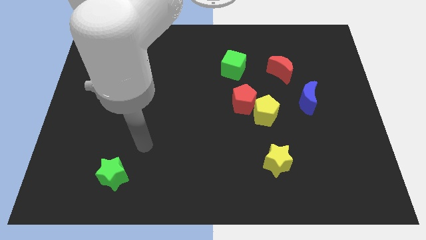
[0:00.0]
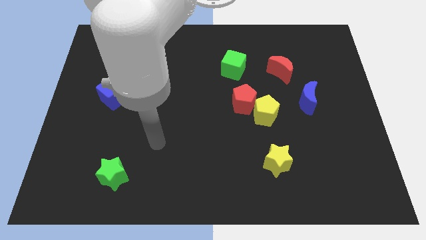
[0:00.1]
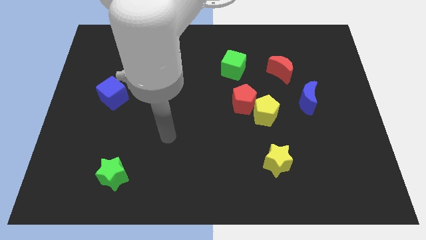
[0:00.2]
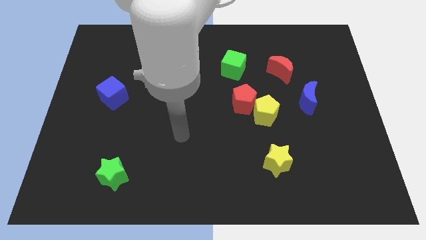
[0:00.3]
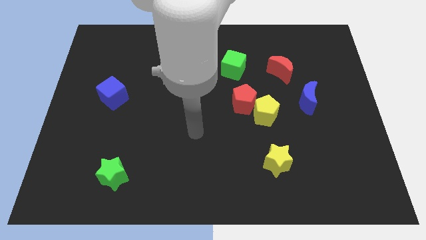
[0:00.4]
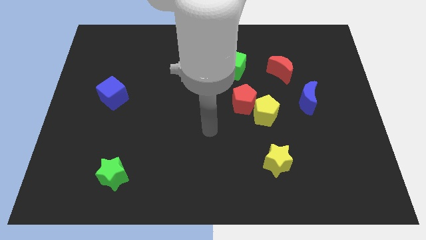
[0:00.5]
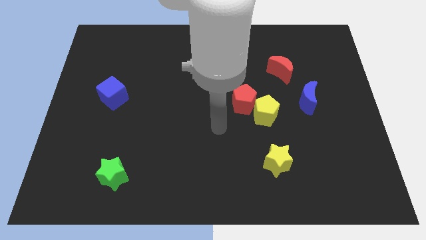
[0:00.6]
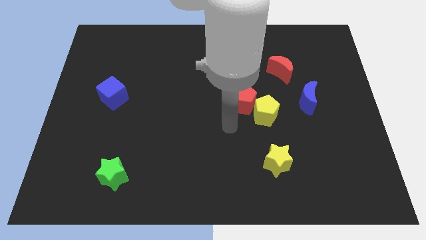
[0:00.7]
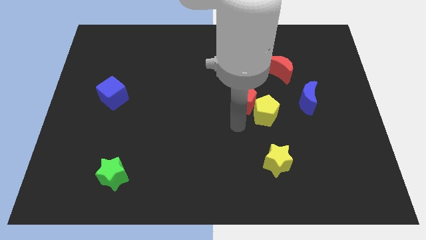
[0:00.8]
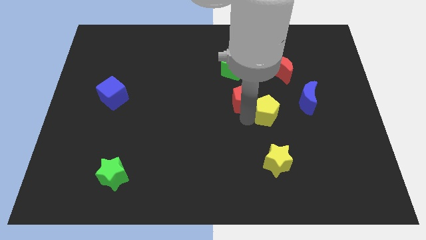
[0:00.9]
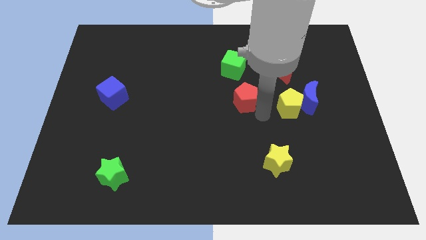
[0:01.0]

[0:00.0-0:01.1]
move the red pentagon away from the yellow pentagon

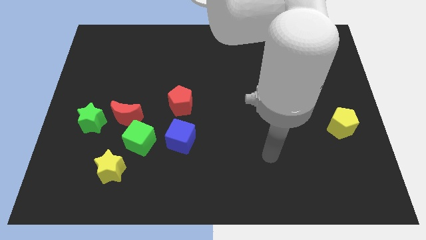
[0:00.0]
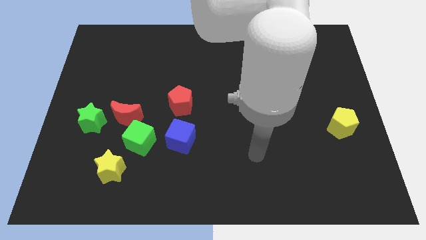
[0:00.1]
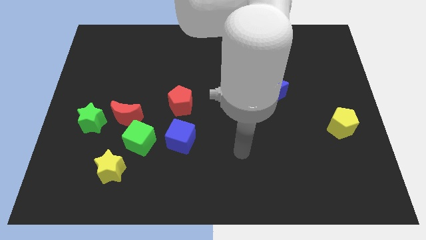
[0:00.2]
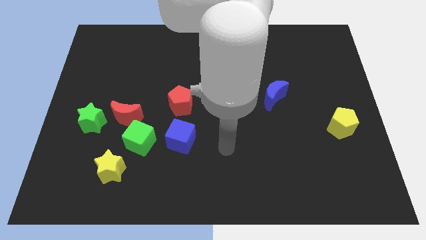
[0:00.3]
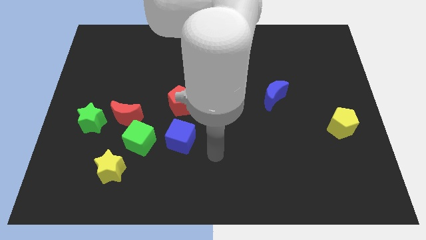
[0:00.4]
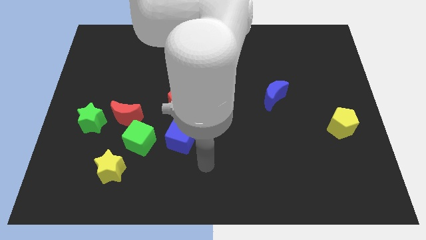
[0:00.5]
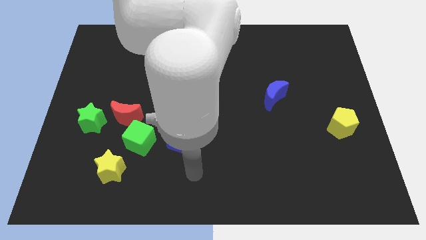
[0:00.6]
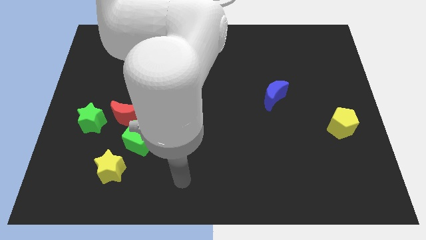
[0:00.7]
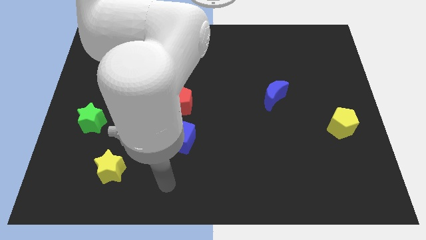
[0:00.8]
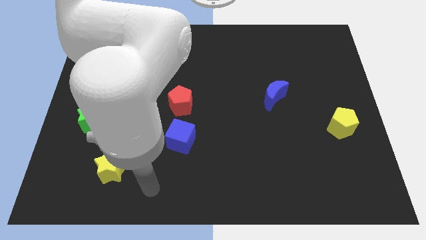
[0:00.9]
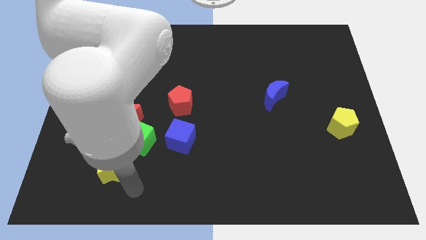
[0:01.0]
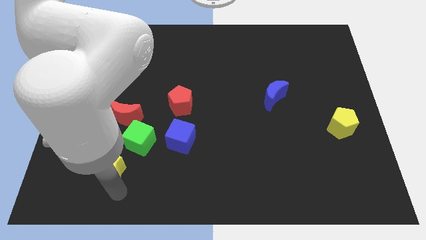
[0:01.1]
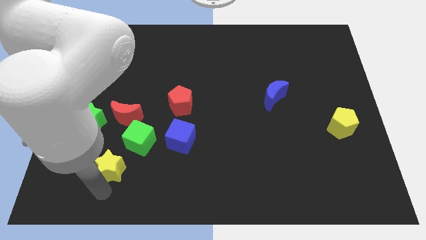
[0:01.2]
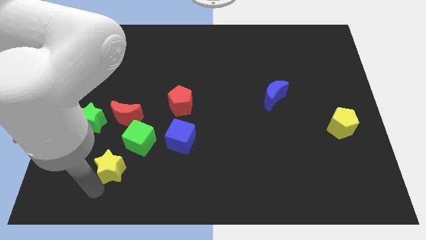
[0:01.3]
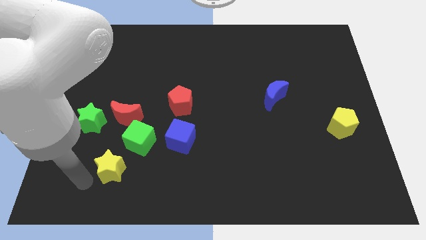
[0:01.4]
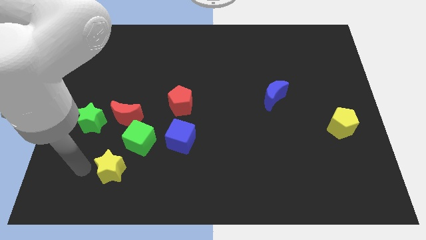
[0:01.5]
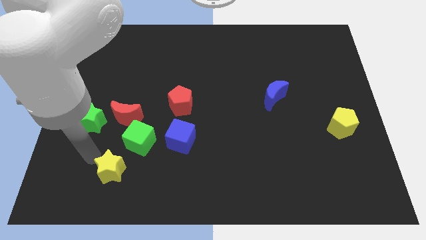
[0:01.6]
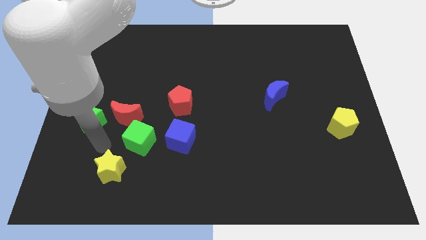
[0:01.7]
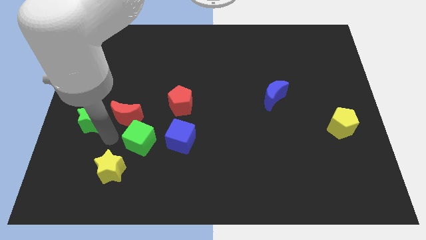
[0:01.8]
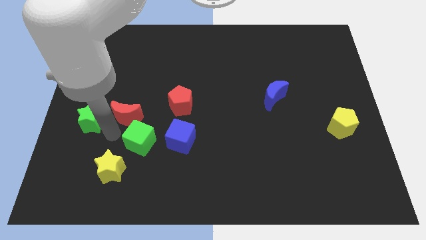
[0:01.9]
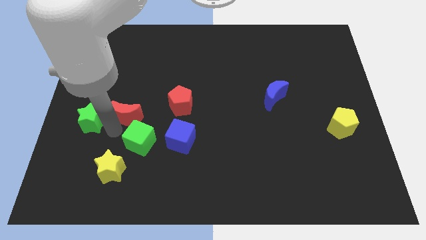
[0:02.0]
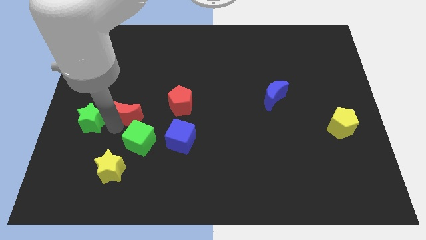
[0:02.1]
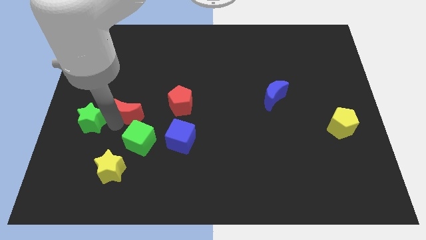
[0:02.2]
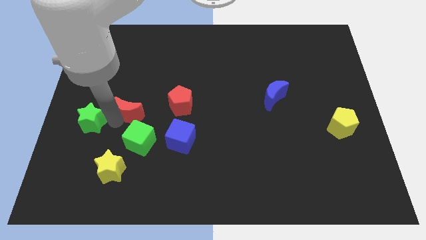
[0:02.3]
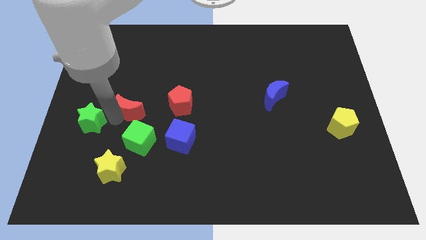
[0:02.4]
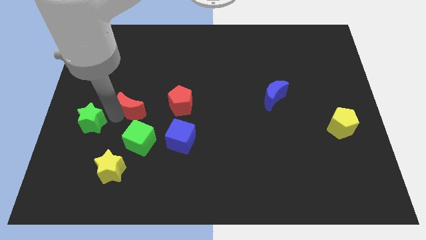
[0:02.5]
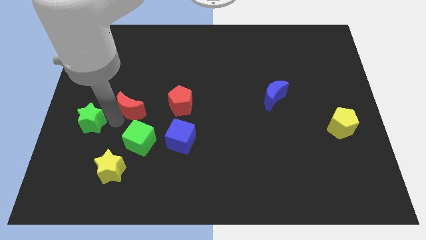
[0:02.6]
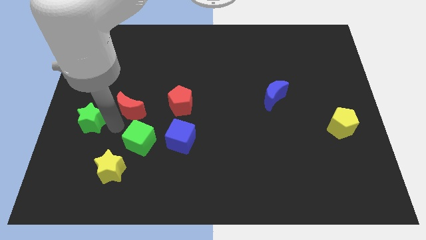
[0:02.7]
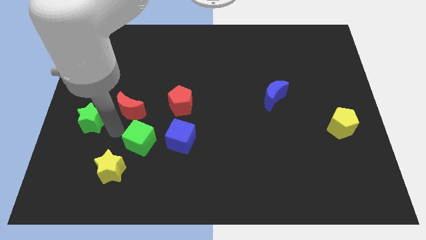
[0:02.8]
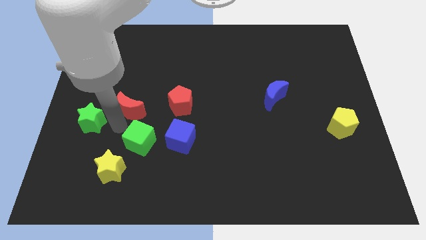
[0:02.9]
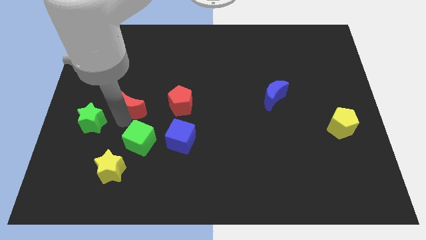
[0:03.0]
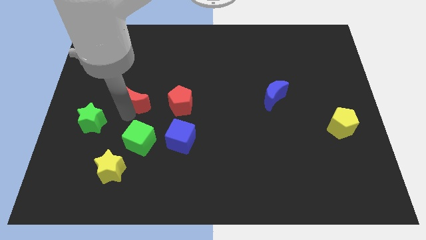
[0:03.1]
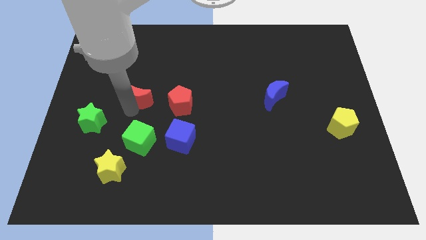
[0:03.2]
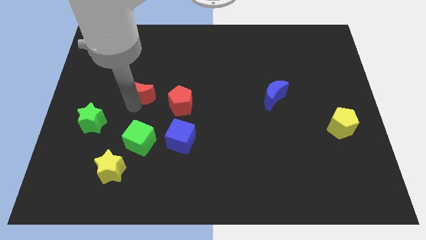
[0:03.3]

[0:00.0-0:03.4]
separate the red moon from the green cube and green star

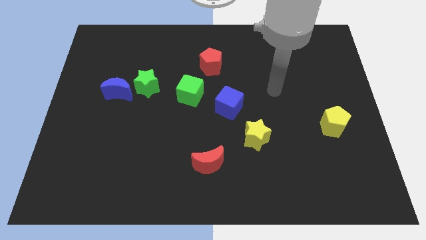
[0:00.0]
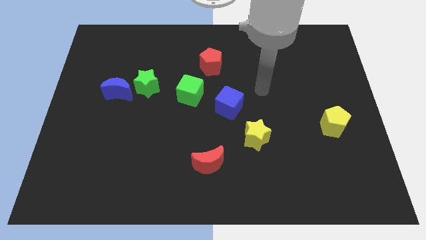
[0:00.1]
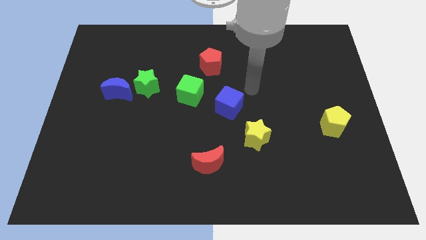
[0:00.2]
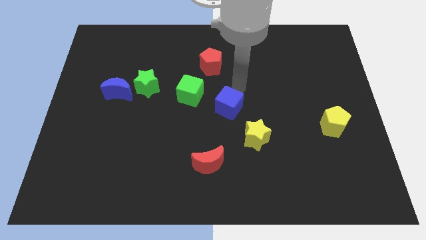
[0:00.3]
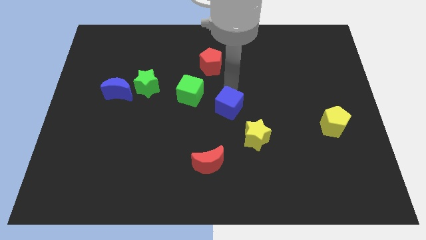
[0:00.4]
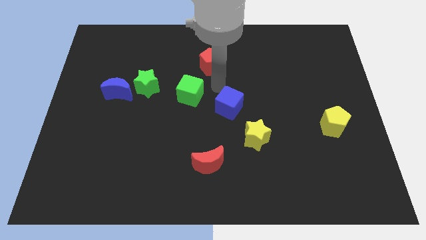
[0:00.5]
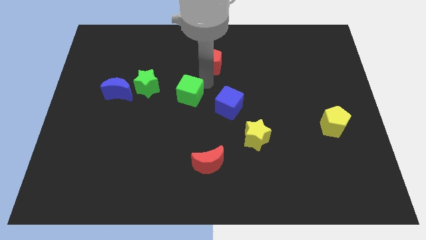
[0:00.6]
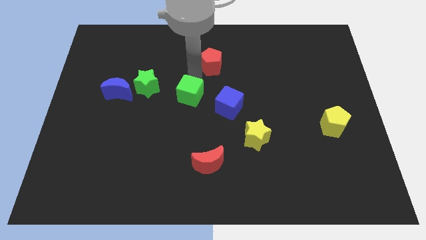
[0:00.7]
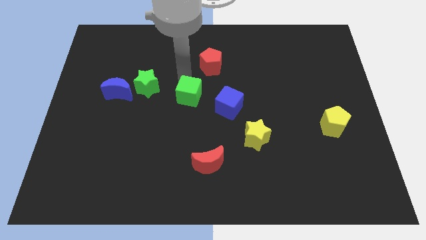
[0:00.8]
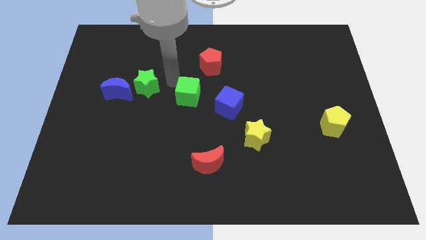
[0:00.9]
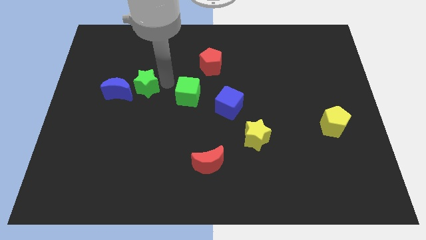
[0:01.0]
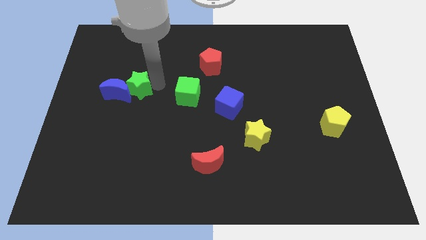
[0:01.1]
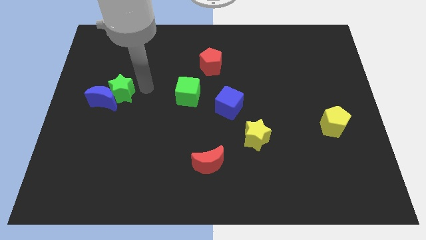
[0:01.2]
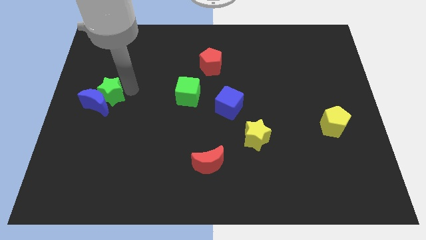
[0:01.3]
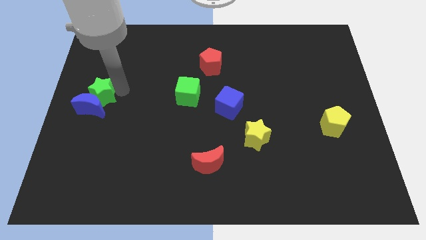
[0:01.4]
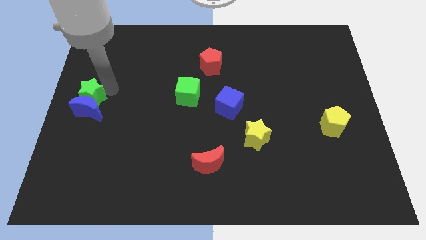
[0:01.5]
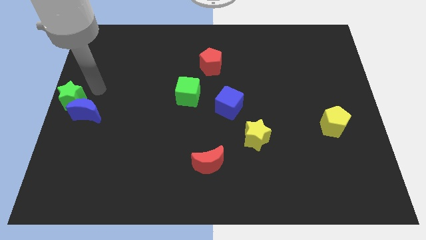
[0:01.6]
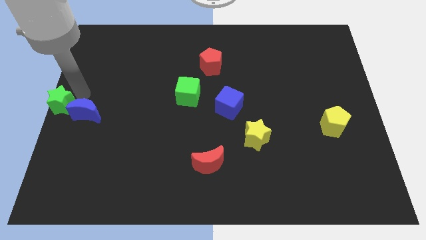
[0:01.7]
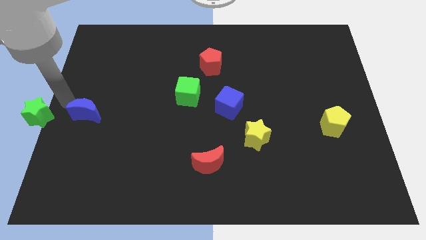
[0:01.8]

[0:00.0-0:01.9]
pull the blue moon apart from the green star

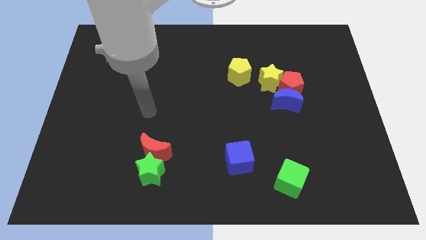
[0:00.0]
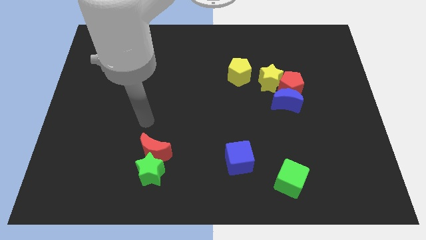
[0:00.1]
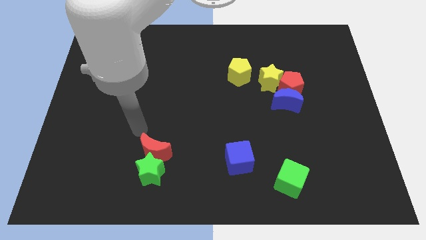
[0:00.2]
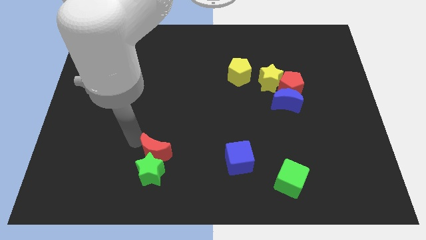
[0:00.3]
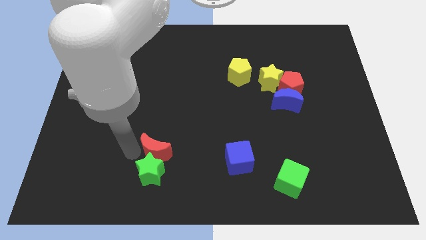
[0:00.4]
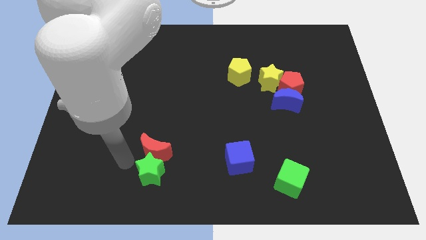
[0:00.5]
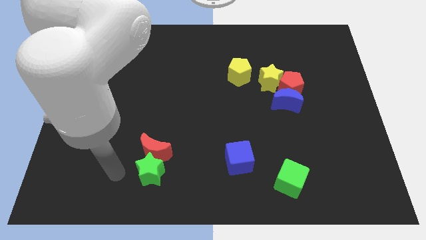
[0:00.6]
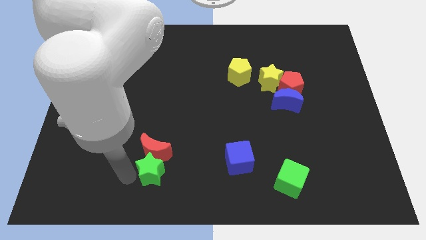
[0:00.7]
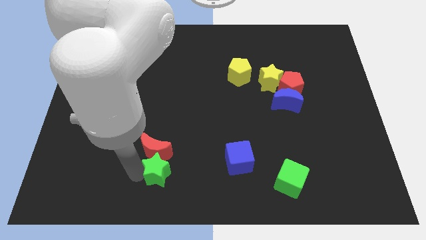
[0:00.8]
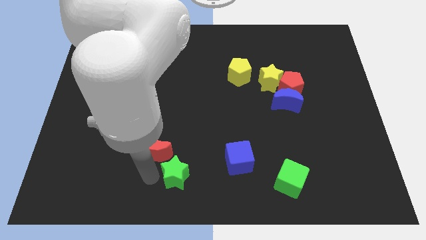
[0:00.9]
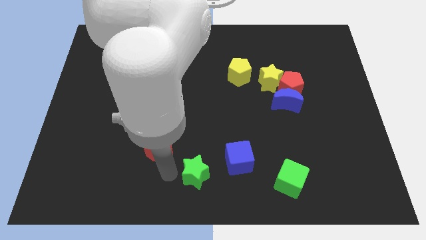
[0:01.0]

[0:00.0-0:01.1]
separate the red moon from the green star

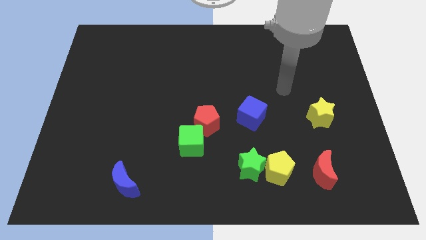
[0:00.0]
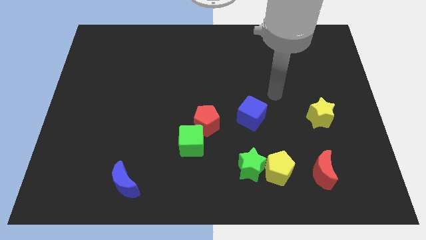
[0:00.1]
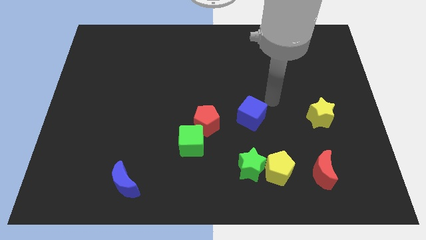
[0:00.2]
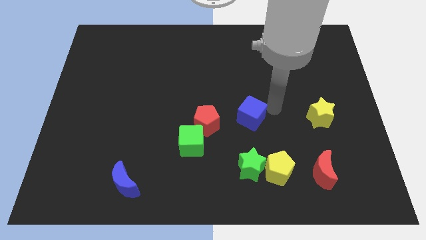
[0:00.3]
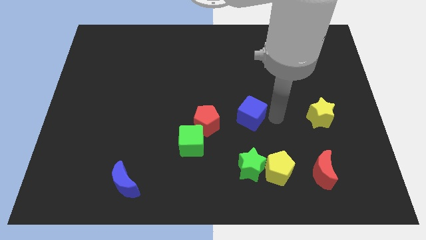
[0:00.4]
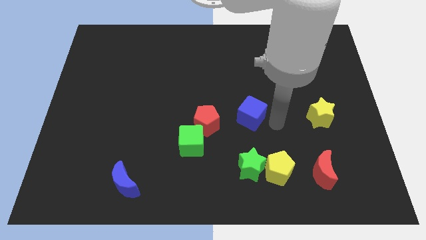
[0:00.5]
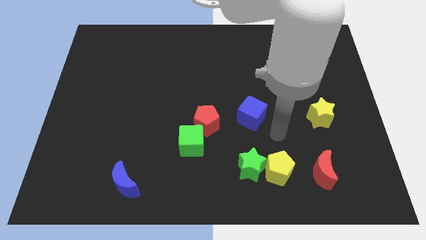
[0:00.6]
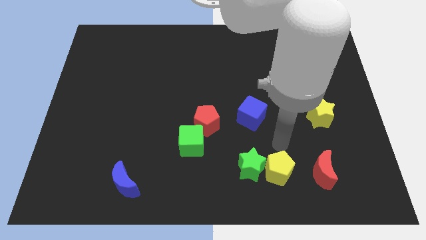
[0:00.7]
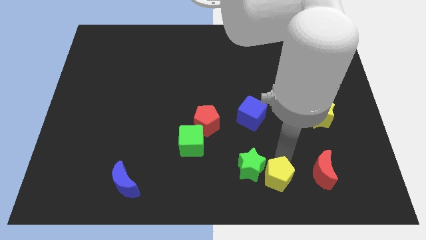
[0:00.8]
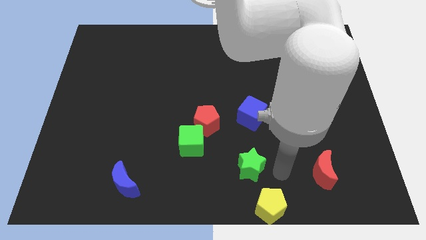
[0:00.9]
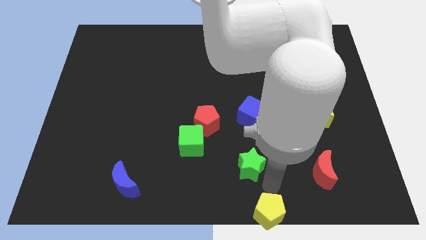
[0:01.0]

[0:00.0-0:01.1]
move the green star away from the yellow pentagon

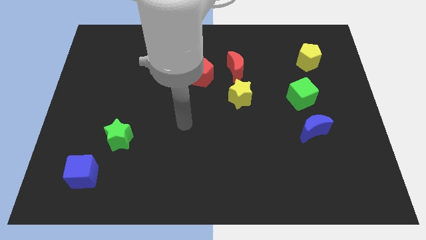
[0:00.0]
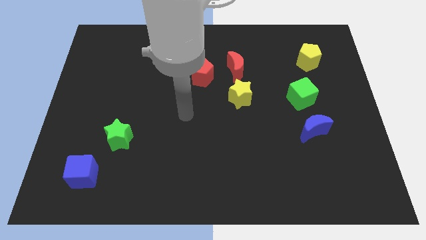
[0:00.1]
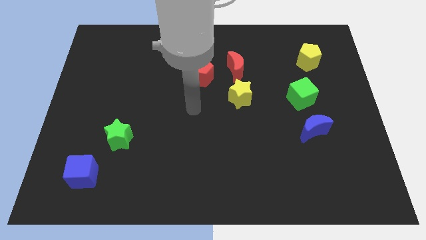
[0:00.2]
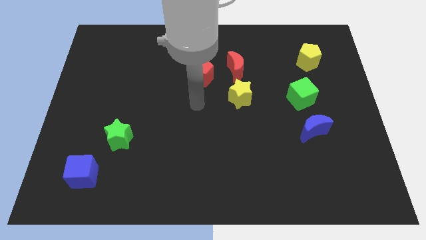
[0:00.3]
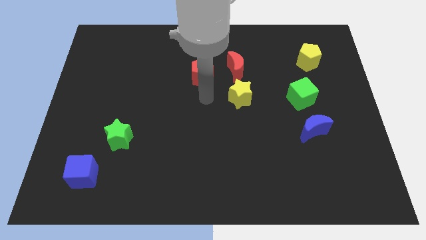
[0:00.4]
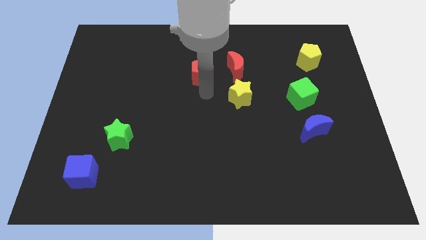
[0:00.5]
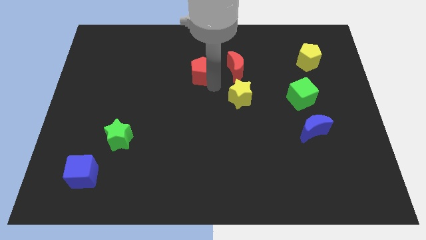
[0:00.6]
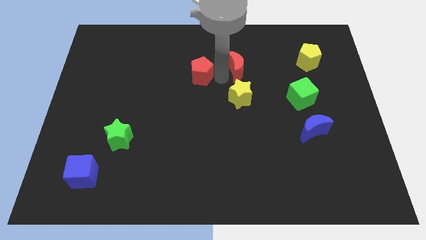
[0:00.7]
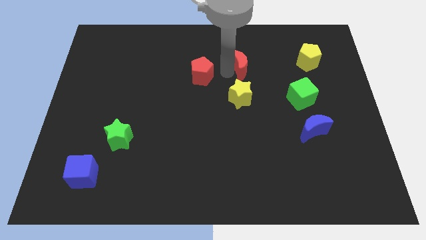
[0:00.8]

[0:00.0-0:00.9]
pull the red pentagon apart from the red moon
